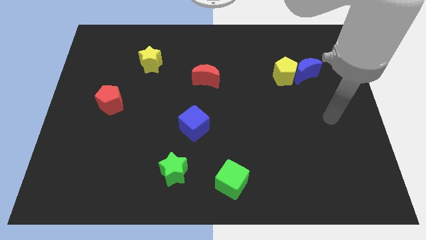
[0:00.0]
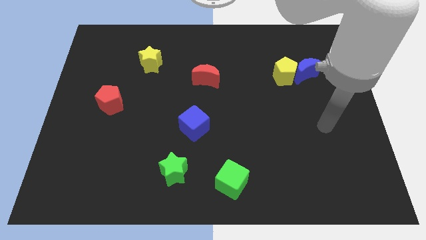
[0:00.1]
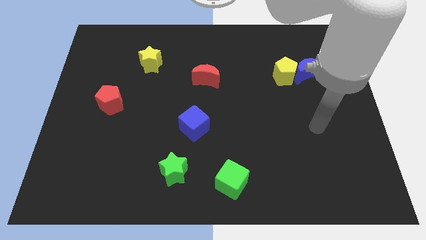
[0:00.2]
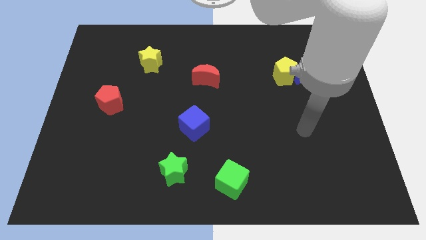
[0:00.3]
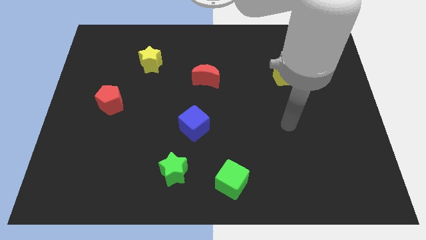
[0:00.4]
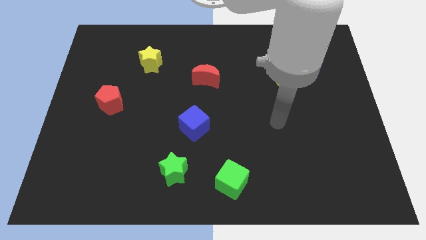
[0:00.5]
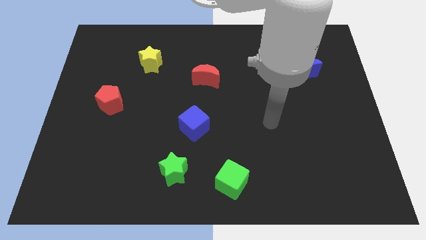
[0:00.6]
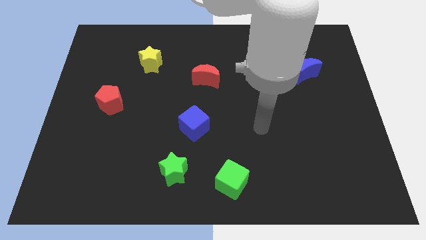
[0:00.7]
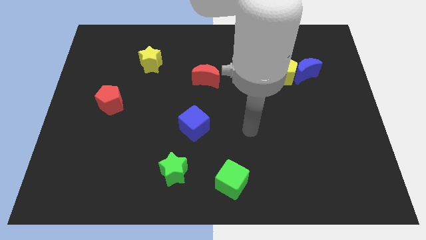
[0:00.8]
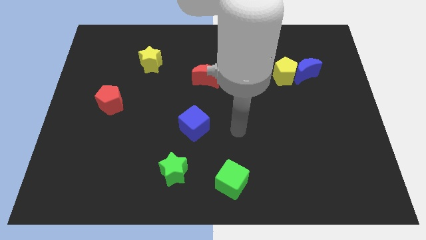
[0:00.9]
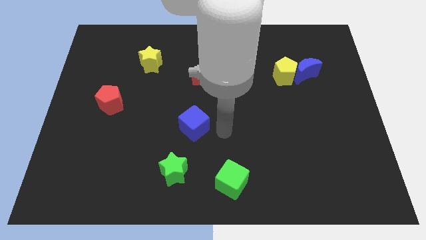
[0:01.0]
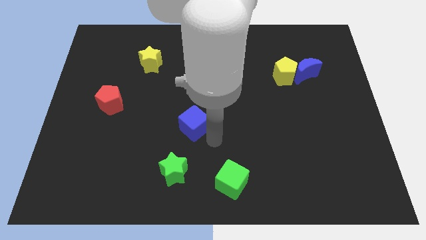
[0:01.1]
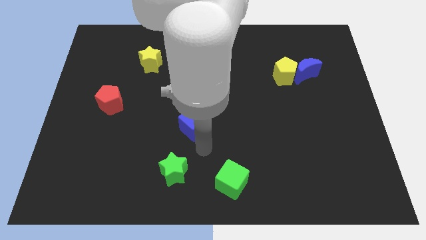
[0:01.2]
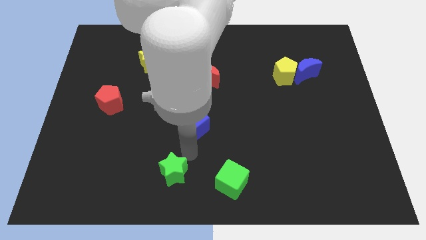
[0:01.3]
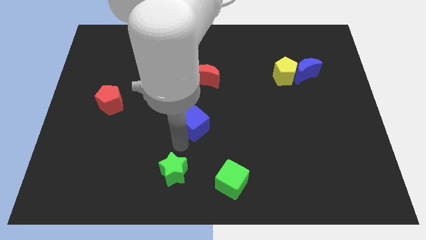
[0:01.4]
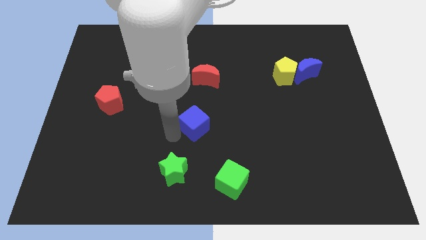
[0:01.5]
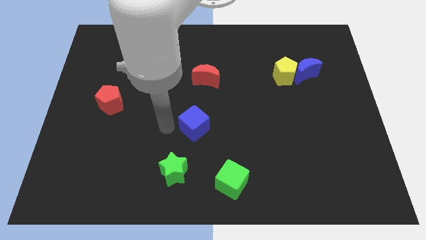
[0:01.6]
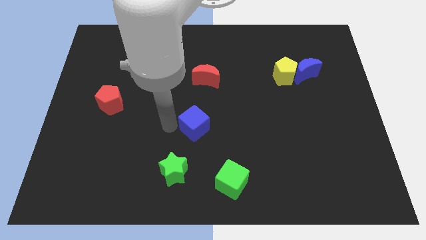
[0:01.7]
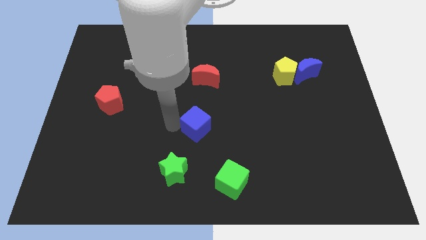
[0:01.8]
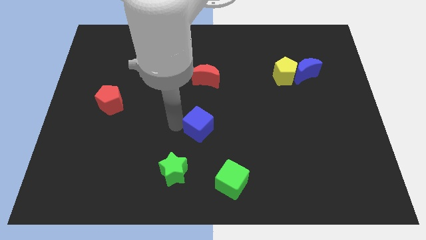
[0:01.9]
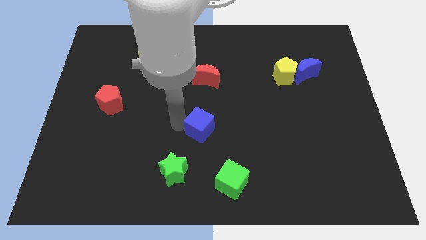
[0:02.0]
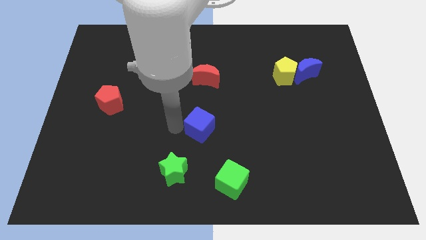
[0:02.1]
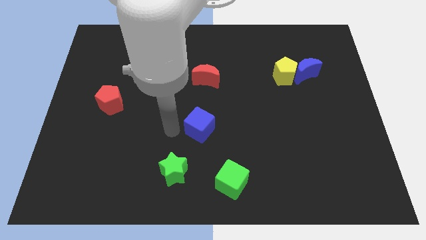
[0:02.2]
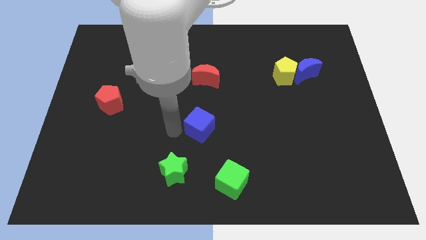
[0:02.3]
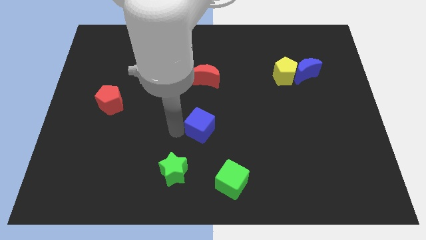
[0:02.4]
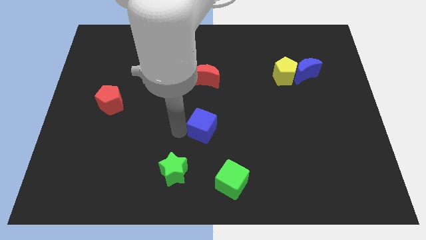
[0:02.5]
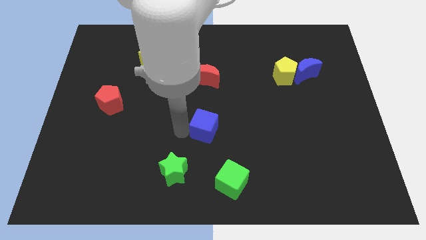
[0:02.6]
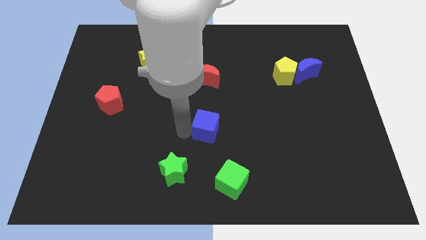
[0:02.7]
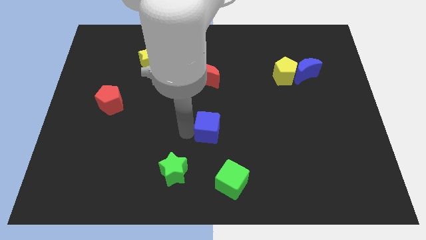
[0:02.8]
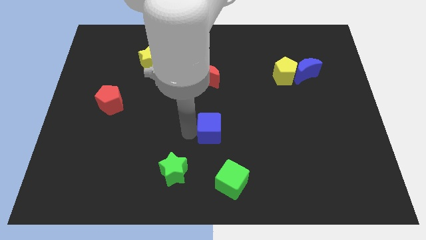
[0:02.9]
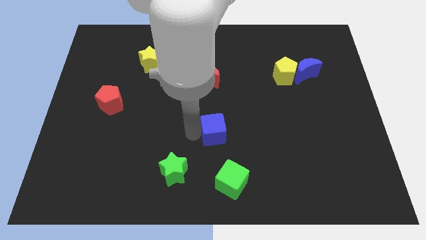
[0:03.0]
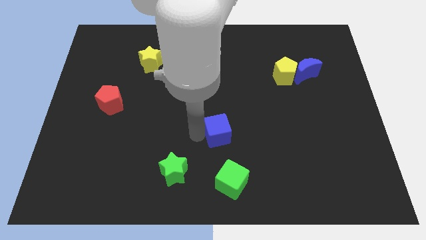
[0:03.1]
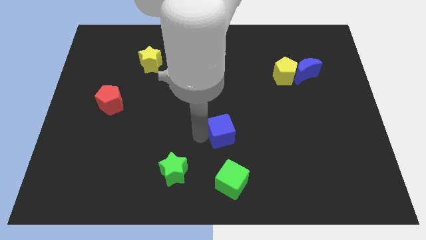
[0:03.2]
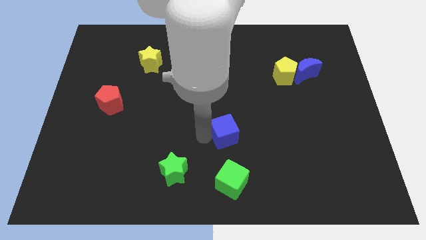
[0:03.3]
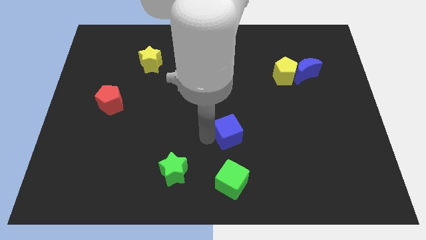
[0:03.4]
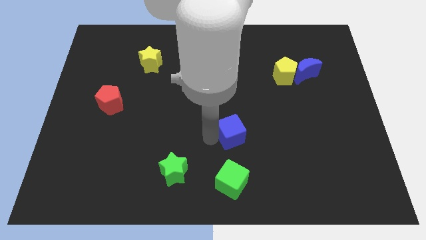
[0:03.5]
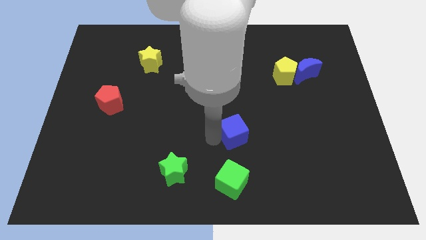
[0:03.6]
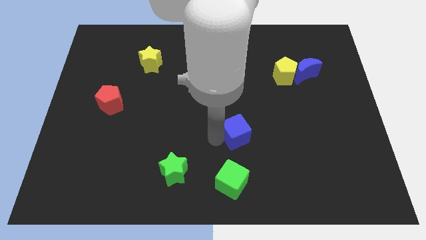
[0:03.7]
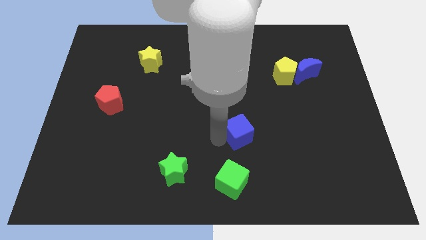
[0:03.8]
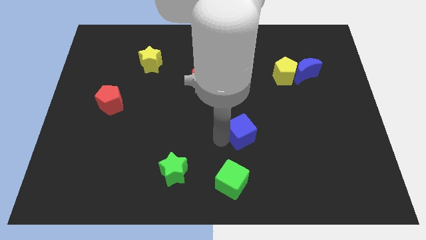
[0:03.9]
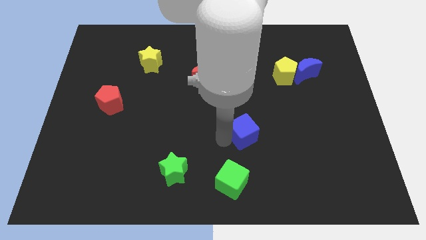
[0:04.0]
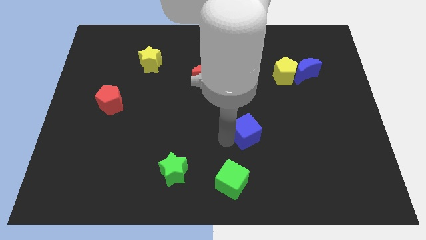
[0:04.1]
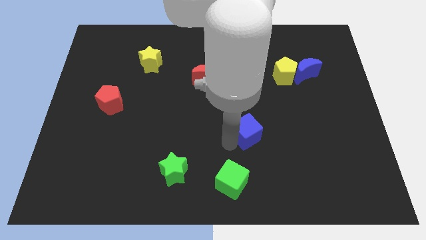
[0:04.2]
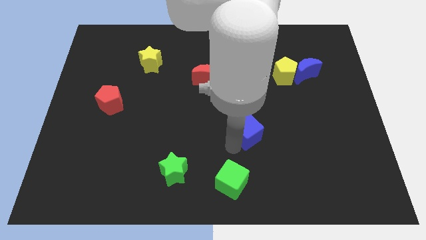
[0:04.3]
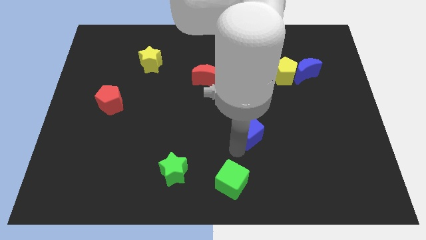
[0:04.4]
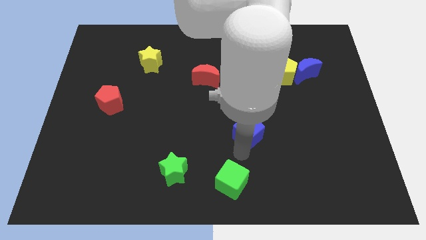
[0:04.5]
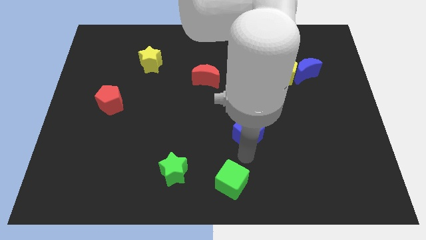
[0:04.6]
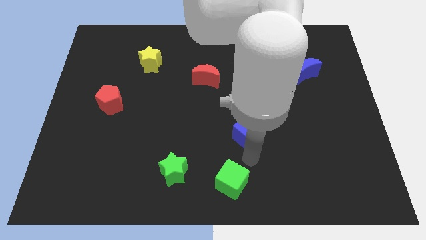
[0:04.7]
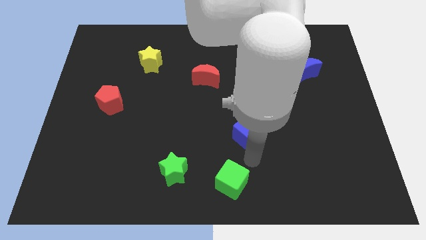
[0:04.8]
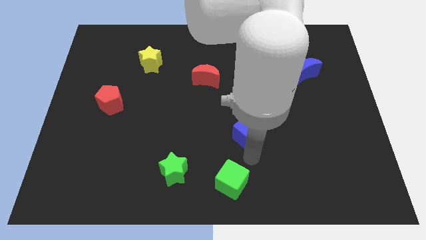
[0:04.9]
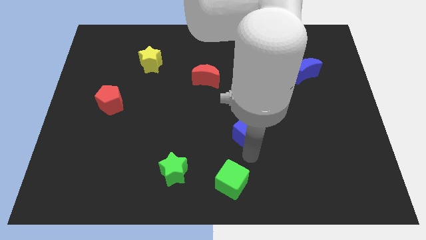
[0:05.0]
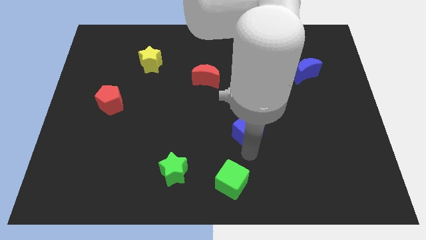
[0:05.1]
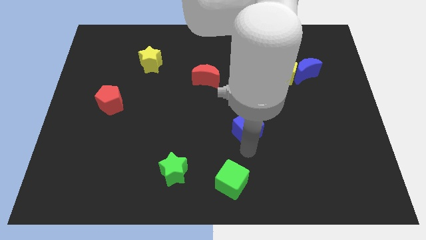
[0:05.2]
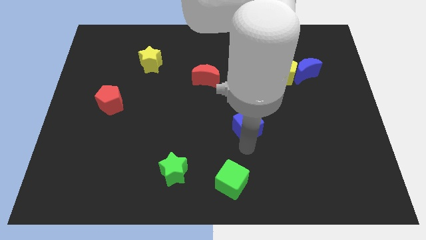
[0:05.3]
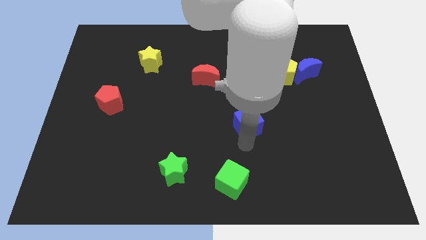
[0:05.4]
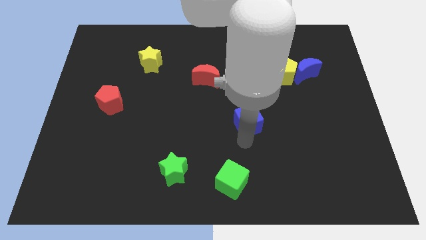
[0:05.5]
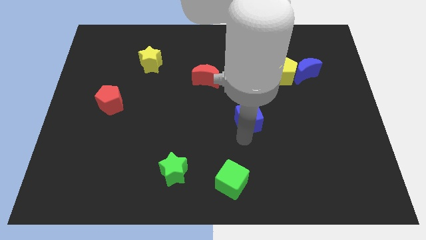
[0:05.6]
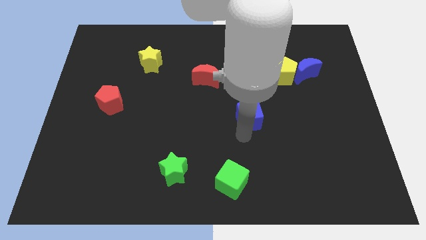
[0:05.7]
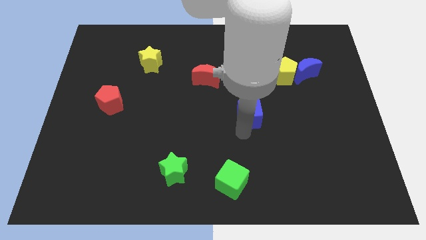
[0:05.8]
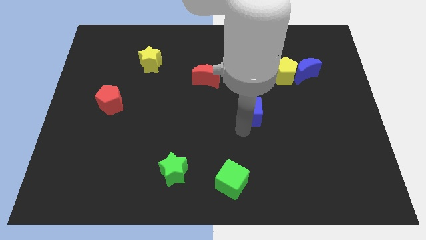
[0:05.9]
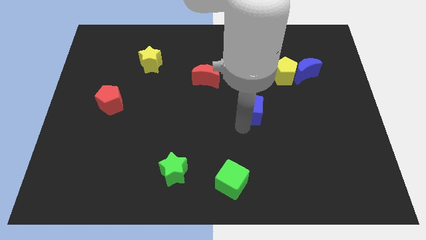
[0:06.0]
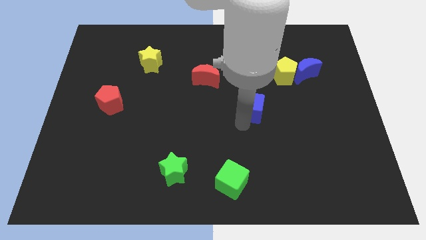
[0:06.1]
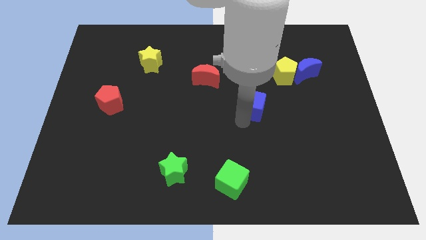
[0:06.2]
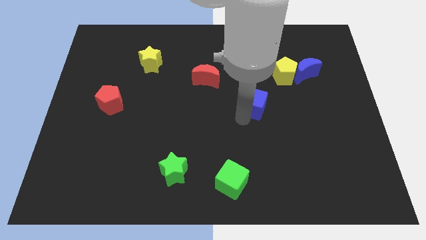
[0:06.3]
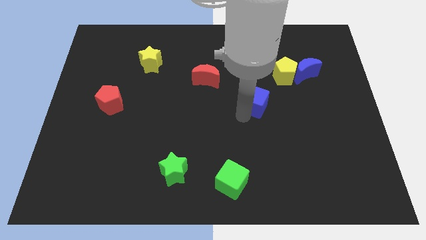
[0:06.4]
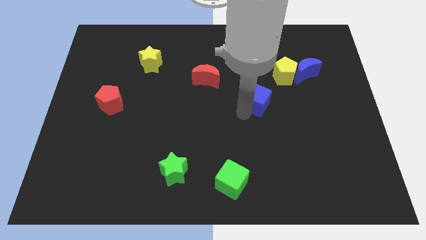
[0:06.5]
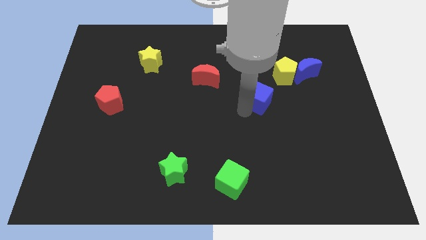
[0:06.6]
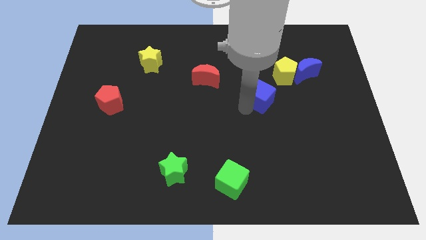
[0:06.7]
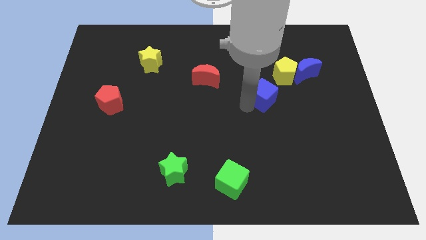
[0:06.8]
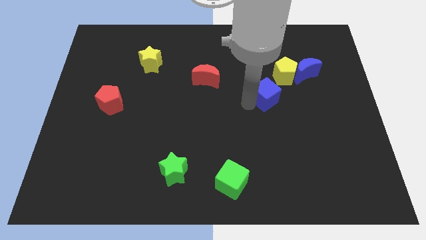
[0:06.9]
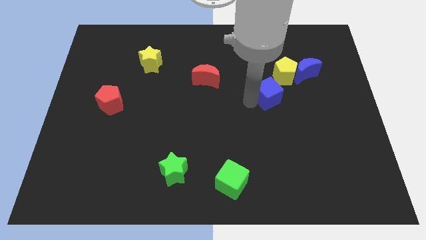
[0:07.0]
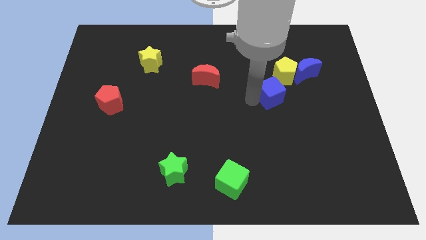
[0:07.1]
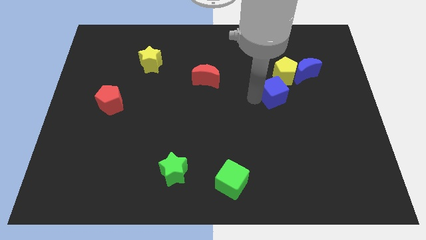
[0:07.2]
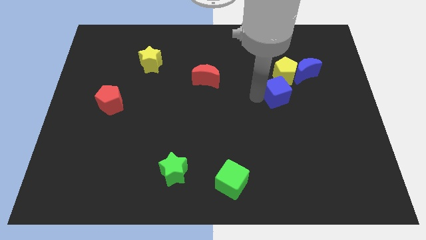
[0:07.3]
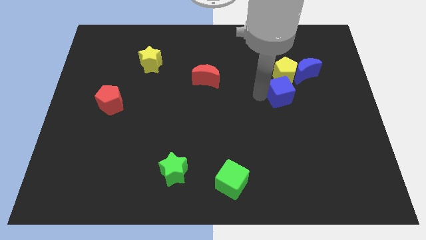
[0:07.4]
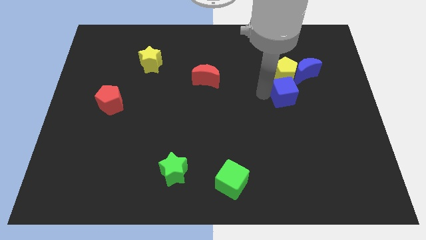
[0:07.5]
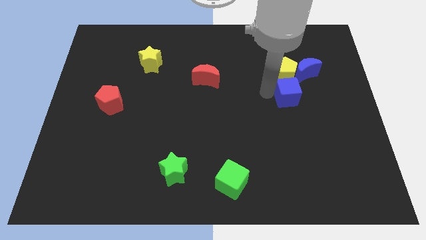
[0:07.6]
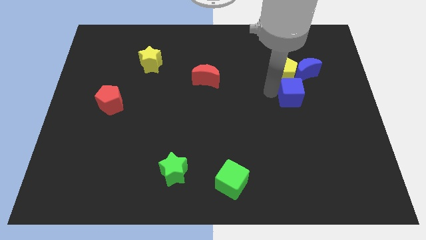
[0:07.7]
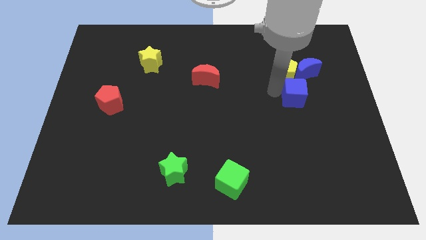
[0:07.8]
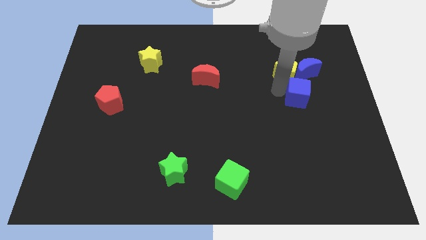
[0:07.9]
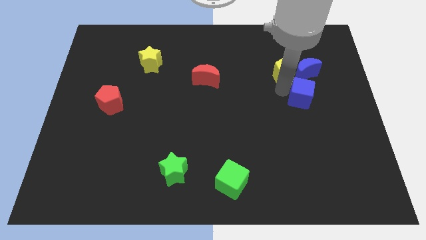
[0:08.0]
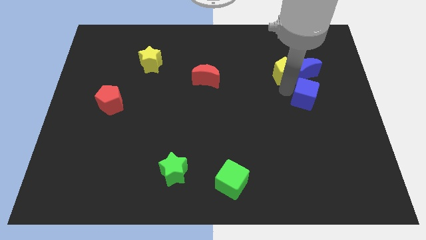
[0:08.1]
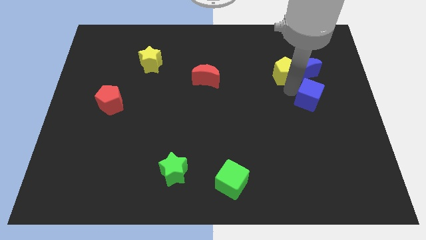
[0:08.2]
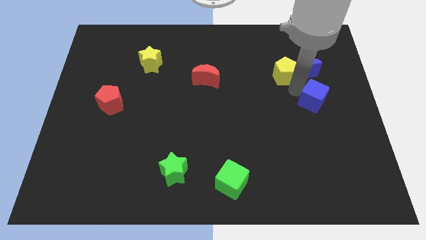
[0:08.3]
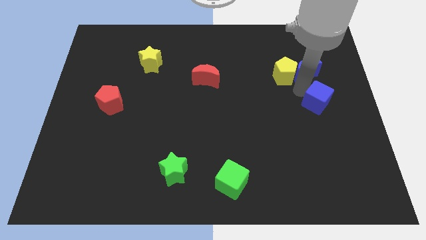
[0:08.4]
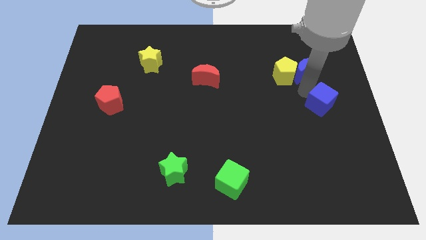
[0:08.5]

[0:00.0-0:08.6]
push the blue cube to the right side of the board
